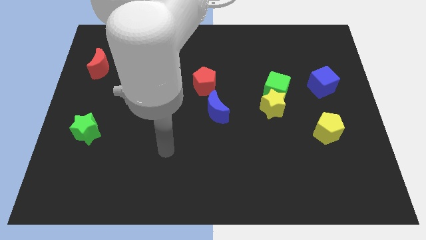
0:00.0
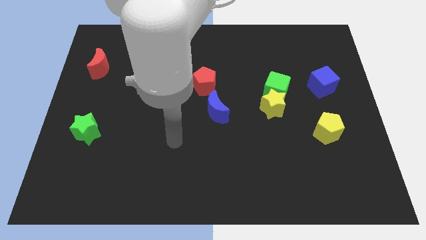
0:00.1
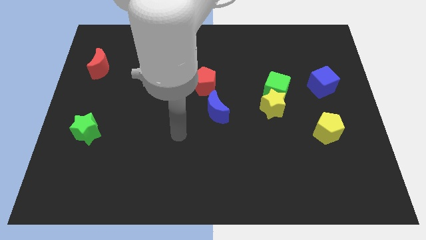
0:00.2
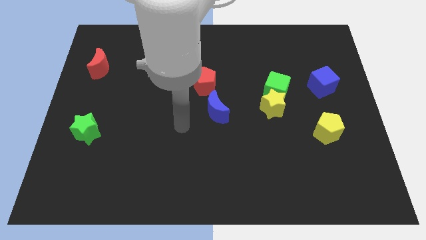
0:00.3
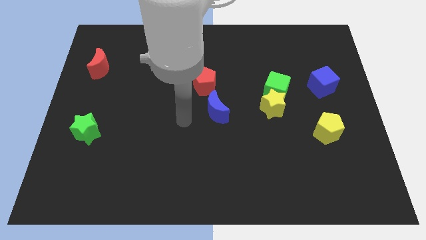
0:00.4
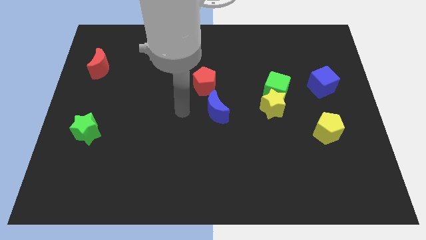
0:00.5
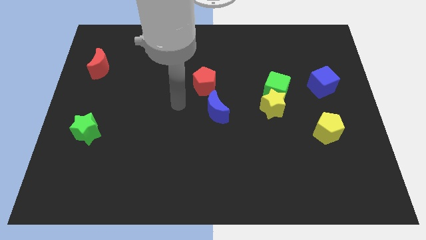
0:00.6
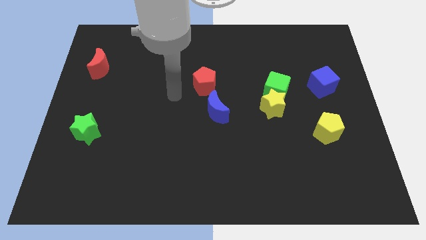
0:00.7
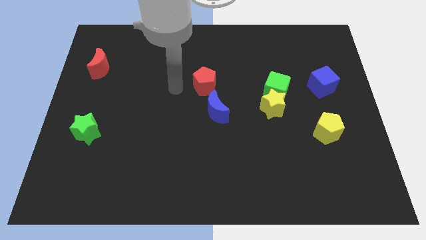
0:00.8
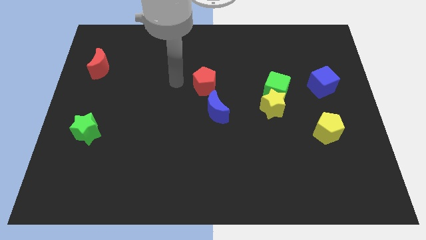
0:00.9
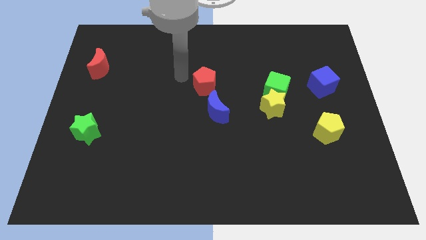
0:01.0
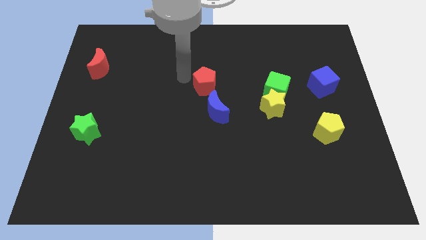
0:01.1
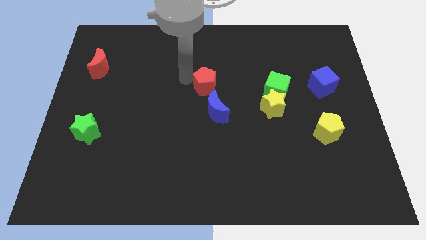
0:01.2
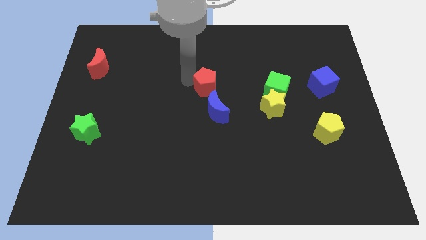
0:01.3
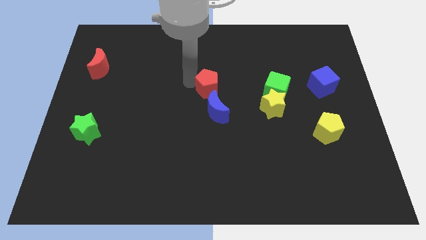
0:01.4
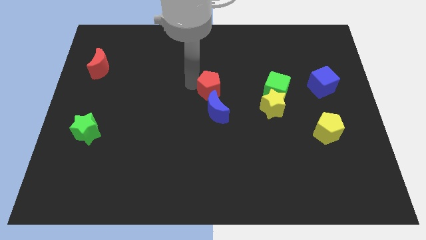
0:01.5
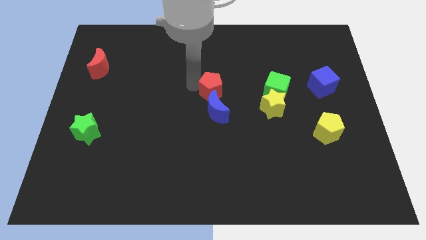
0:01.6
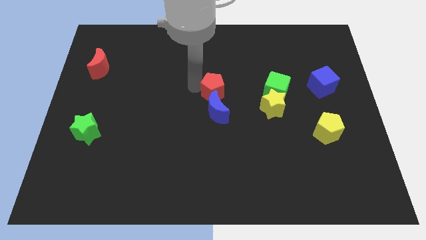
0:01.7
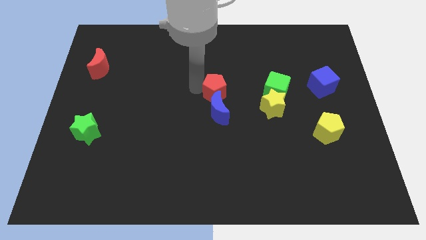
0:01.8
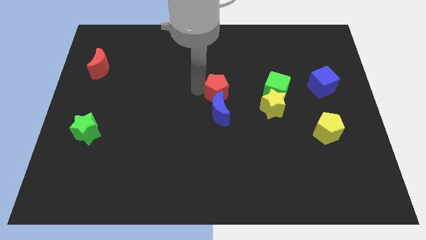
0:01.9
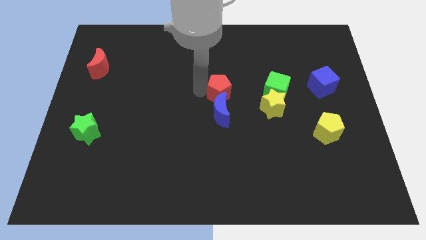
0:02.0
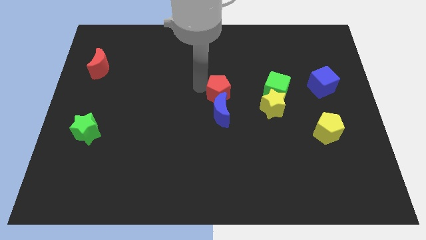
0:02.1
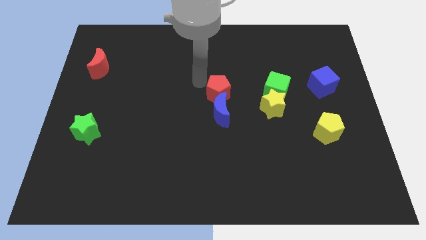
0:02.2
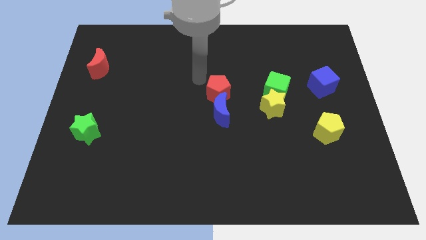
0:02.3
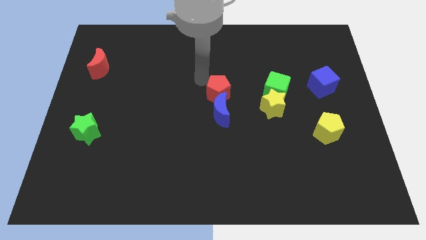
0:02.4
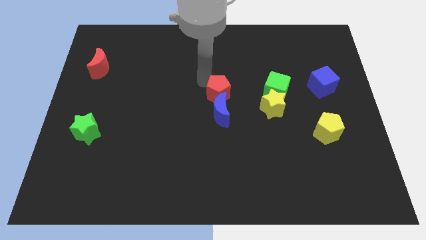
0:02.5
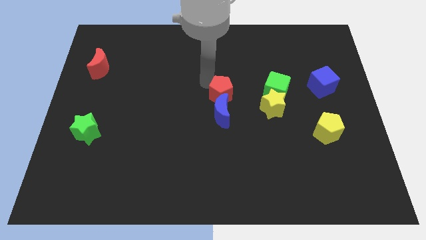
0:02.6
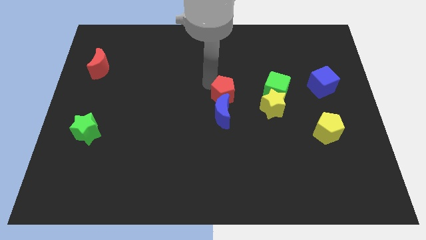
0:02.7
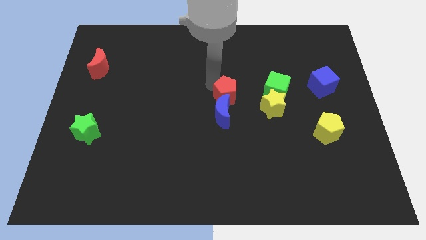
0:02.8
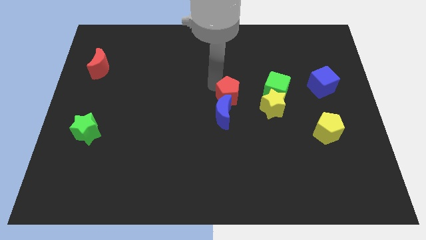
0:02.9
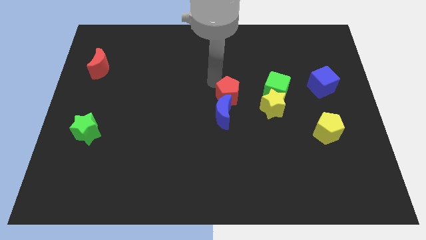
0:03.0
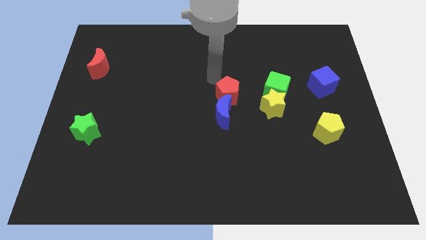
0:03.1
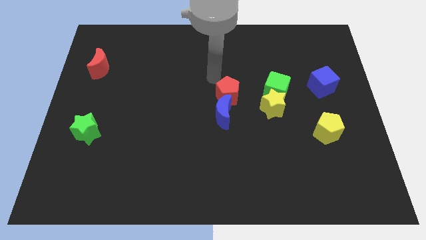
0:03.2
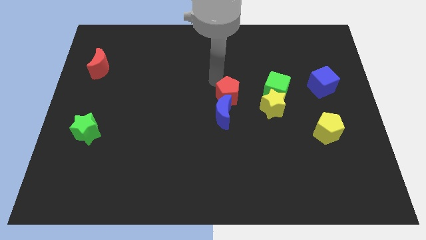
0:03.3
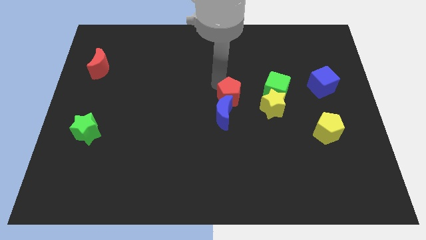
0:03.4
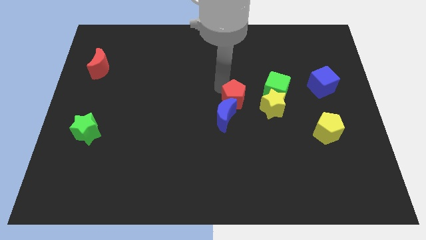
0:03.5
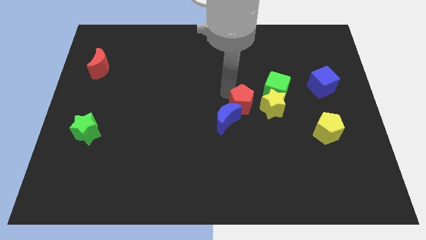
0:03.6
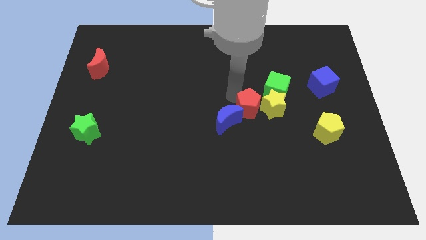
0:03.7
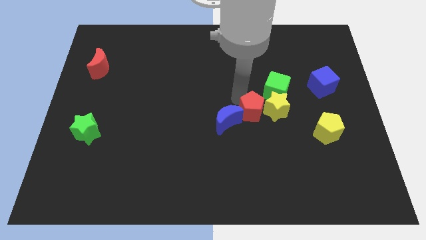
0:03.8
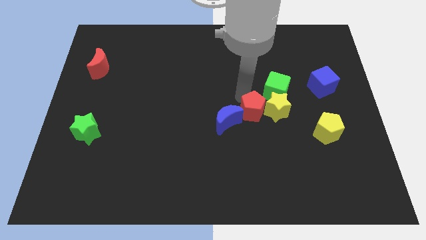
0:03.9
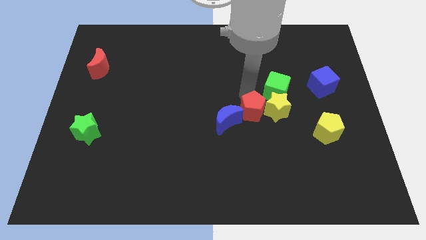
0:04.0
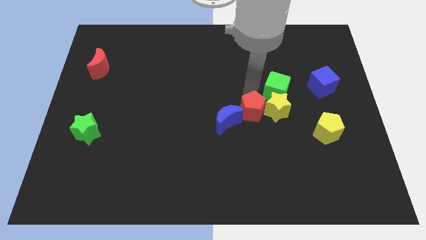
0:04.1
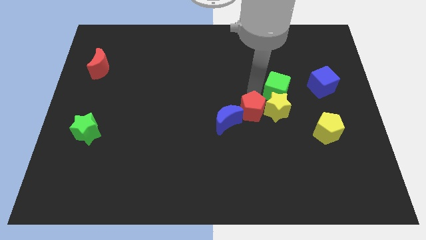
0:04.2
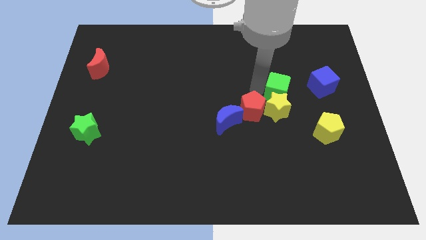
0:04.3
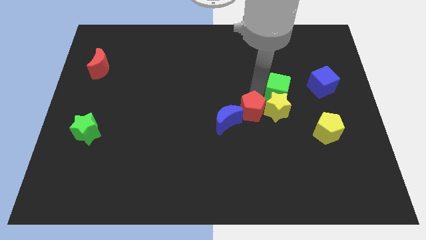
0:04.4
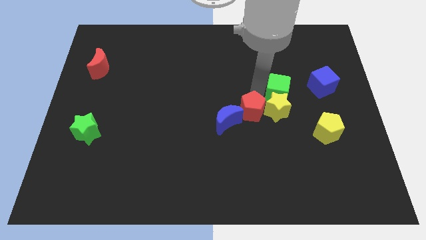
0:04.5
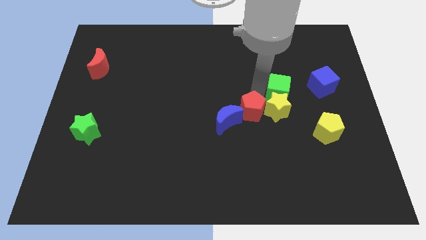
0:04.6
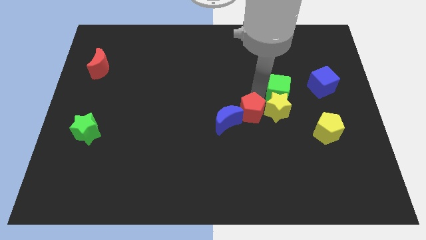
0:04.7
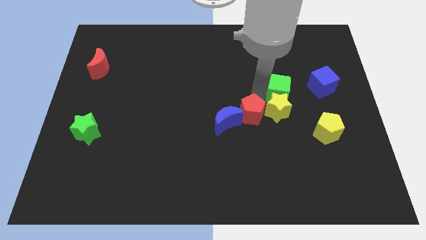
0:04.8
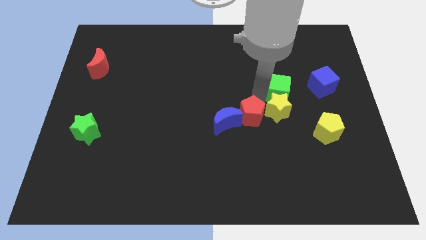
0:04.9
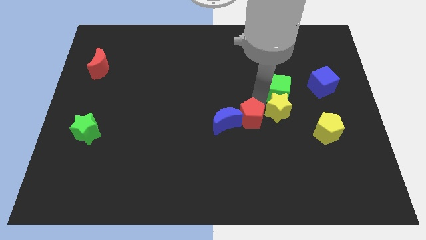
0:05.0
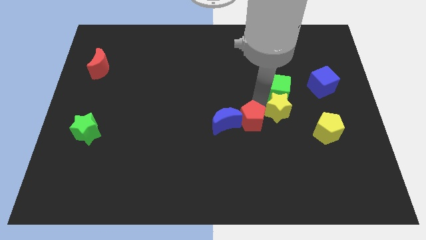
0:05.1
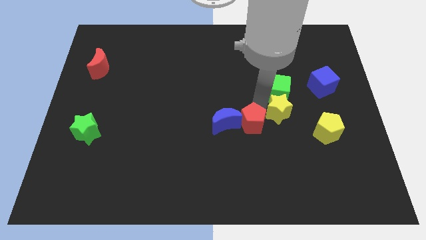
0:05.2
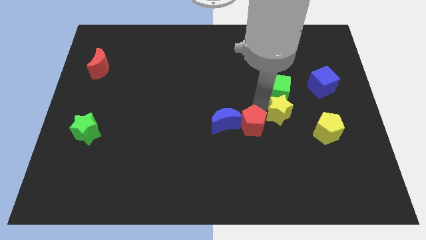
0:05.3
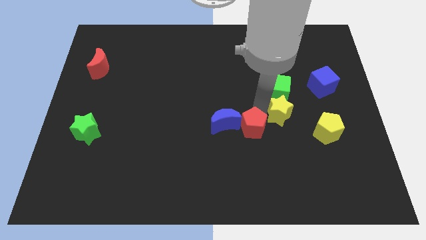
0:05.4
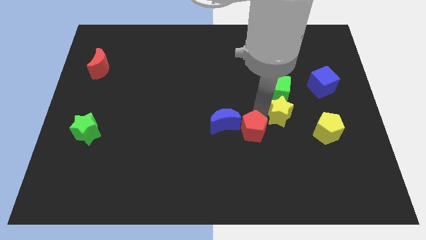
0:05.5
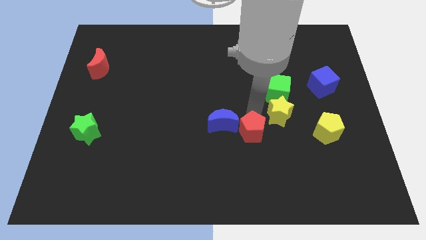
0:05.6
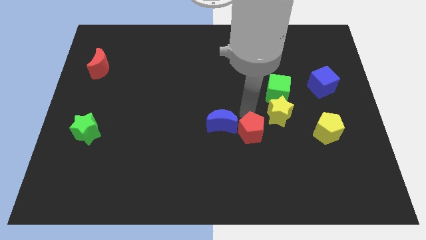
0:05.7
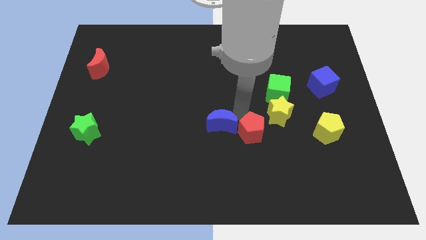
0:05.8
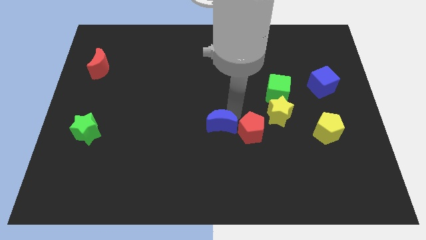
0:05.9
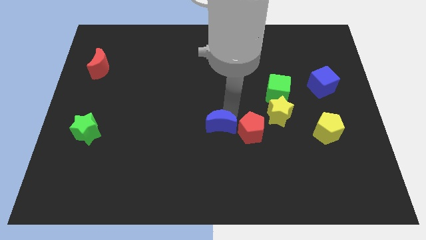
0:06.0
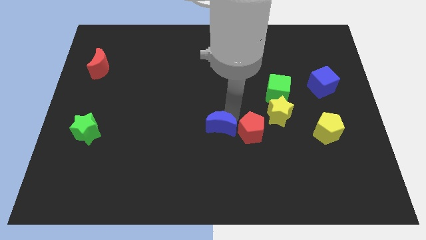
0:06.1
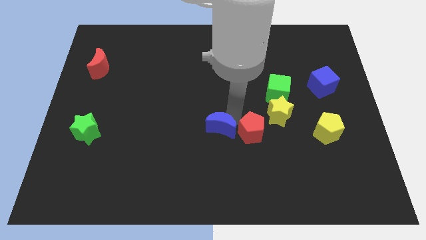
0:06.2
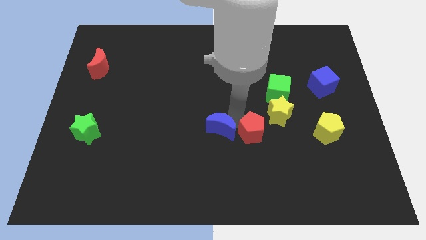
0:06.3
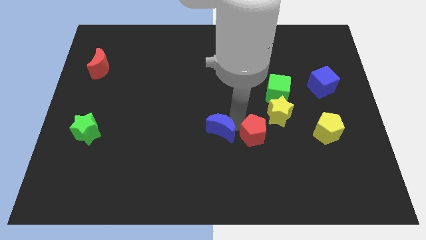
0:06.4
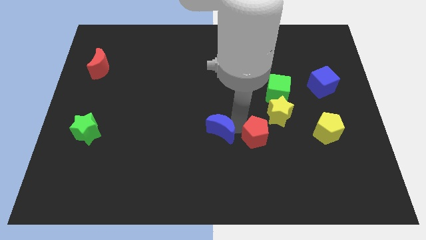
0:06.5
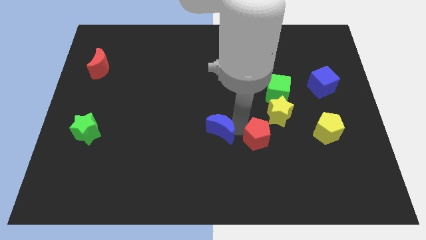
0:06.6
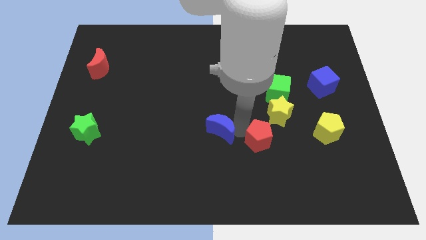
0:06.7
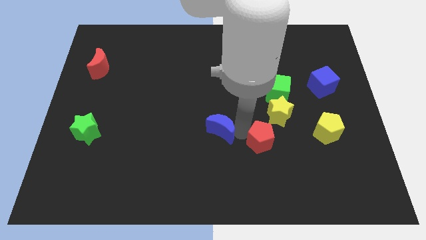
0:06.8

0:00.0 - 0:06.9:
slide the red pentagon downwards and then to the right

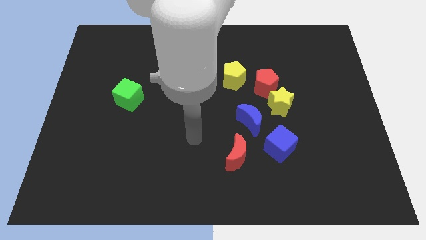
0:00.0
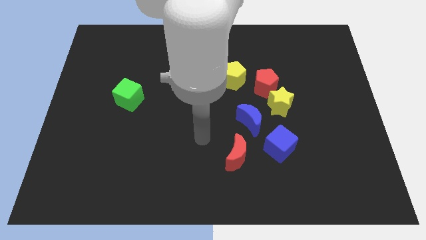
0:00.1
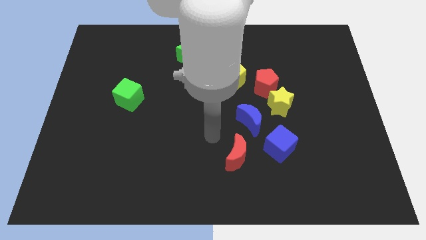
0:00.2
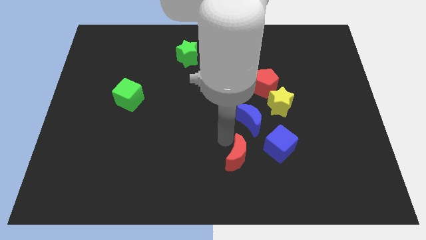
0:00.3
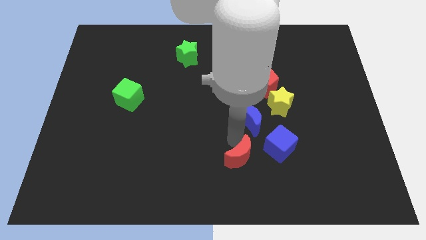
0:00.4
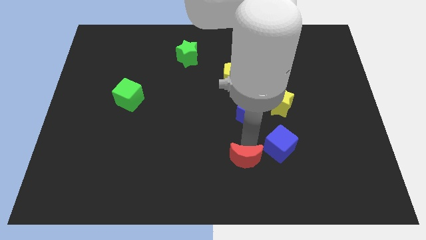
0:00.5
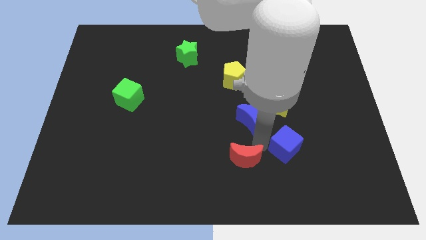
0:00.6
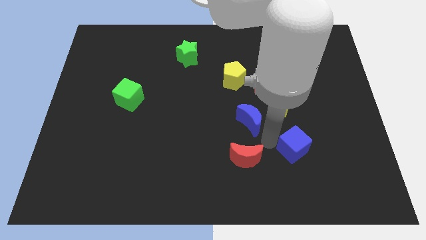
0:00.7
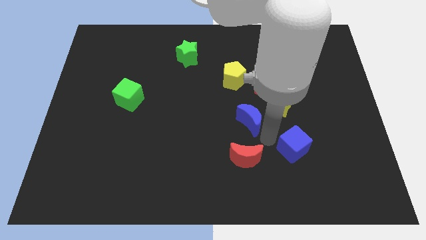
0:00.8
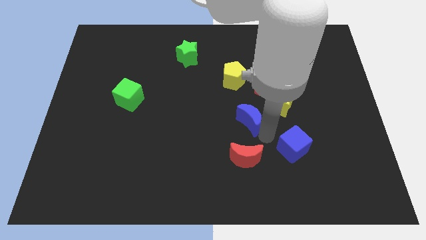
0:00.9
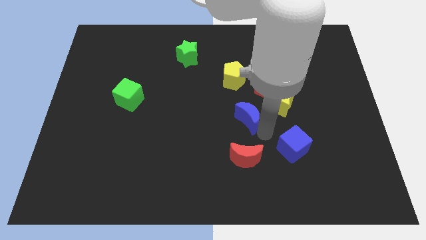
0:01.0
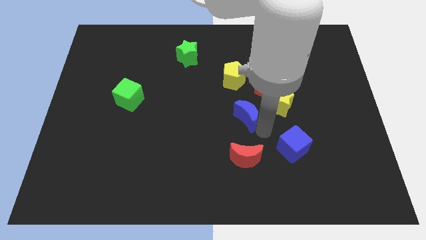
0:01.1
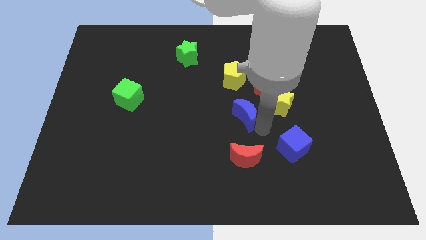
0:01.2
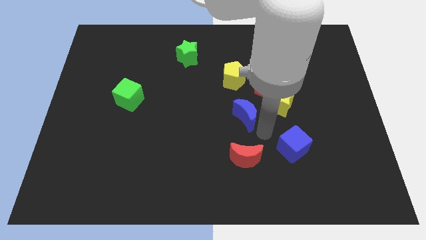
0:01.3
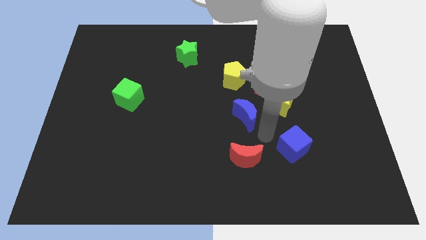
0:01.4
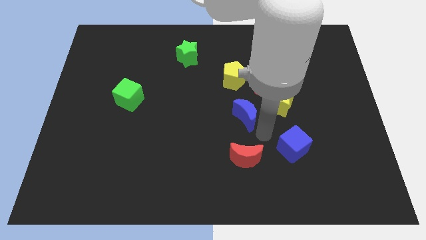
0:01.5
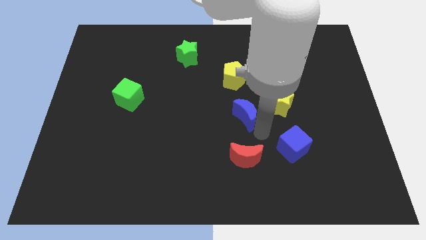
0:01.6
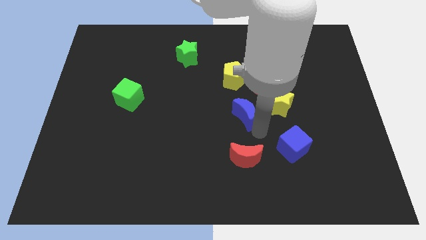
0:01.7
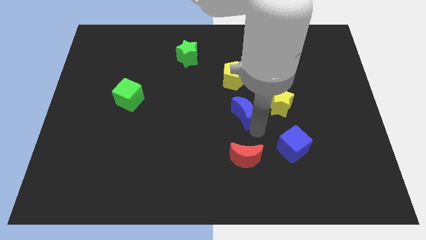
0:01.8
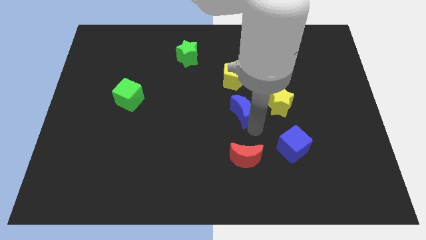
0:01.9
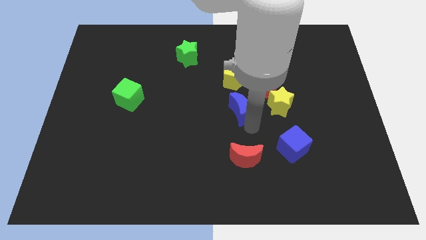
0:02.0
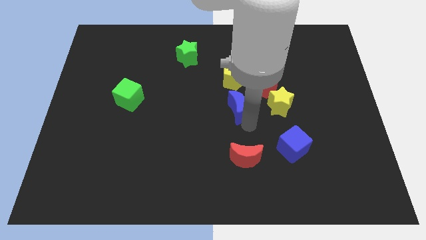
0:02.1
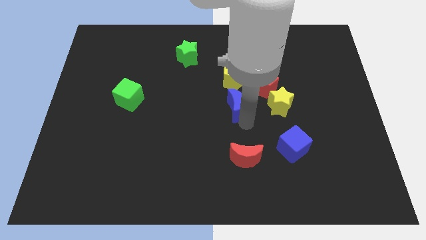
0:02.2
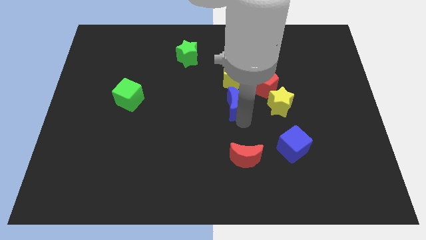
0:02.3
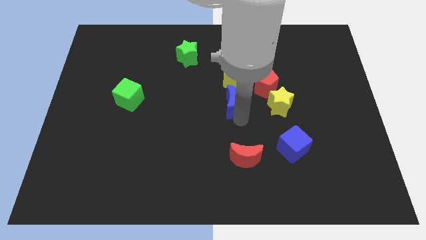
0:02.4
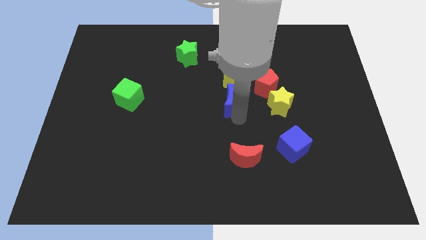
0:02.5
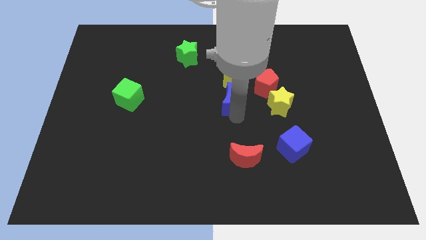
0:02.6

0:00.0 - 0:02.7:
push the blue moon somewhat up and then left
